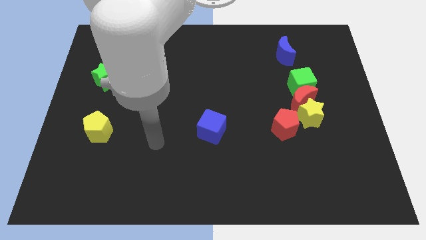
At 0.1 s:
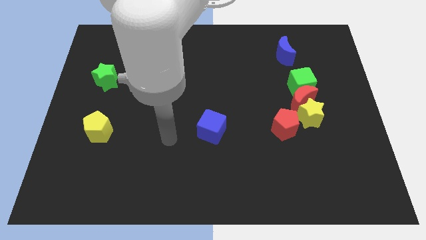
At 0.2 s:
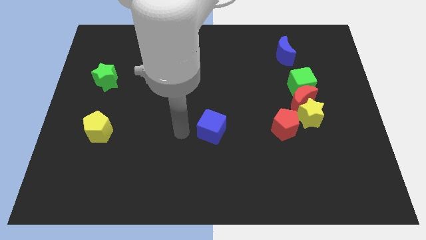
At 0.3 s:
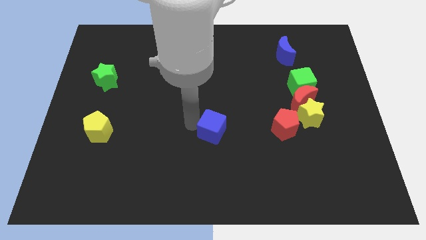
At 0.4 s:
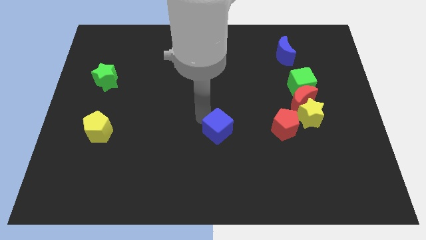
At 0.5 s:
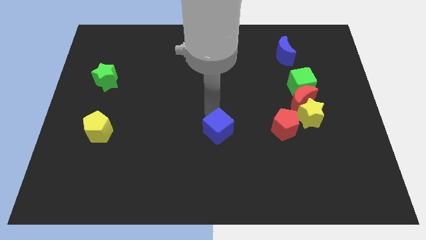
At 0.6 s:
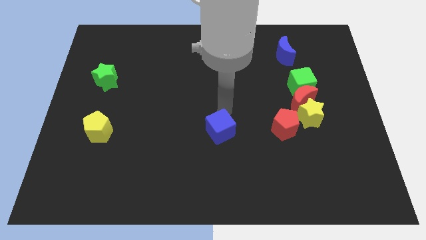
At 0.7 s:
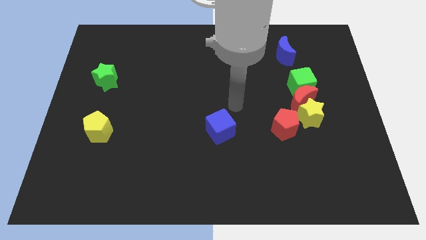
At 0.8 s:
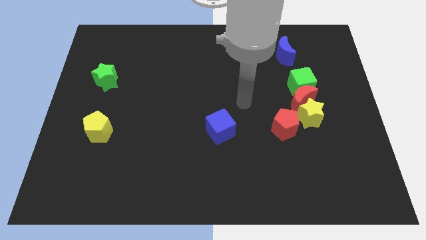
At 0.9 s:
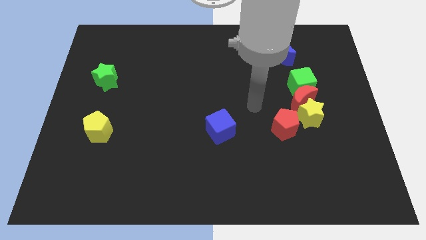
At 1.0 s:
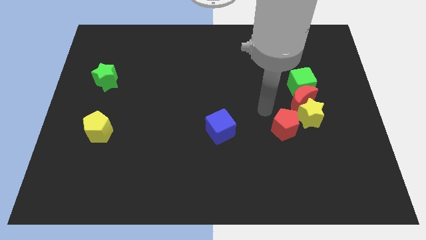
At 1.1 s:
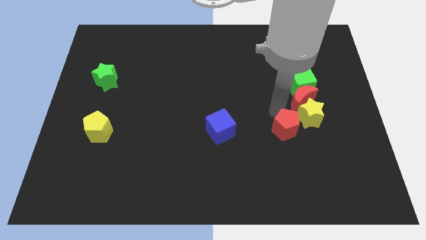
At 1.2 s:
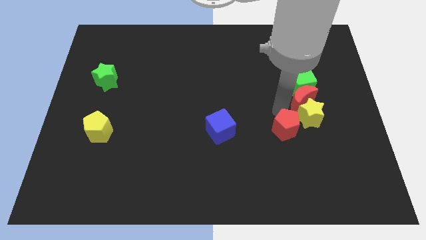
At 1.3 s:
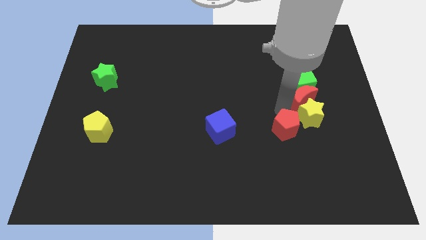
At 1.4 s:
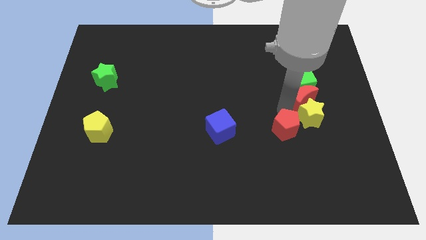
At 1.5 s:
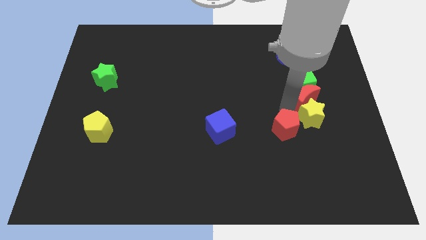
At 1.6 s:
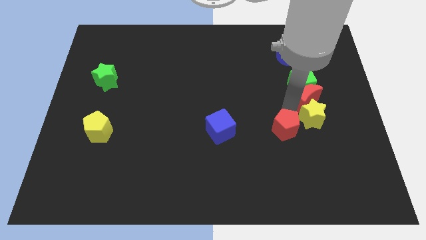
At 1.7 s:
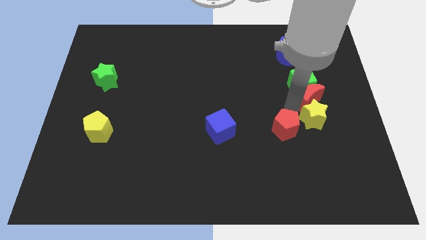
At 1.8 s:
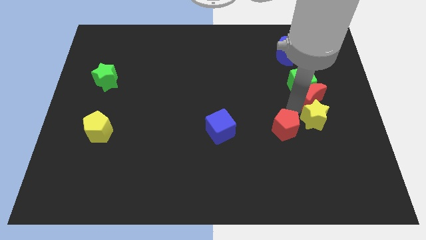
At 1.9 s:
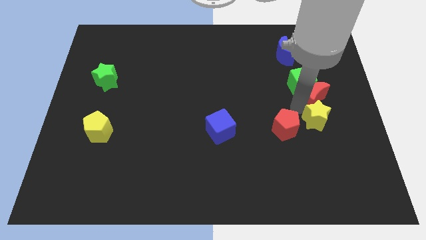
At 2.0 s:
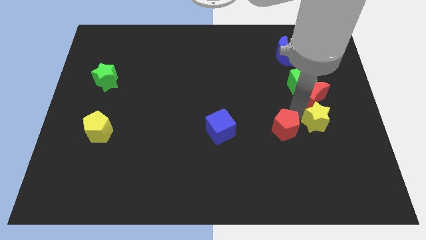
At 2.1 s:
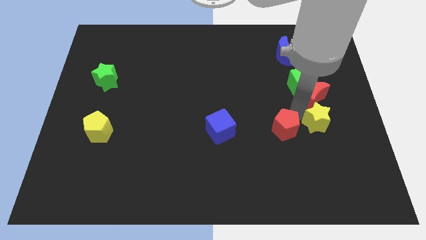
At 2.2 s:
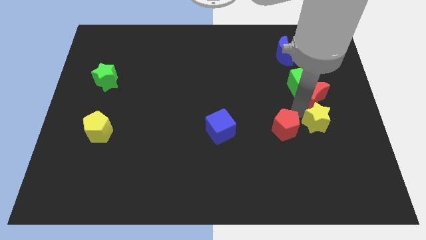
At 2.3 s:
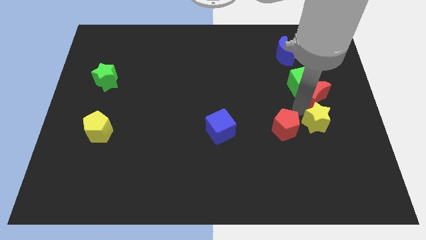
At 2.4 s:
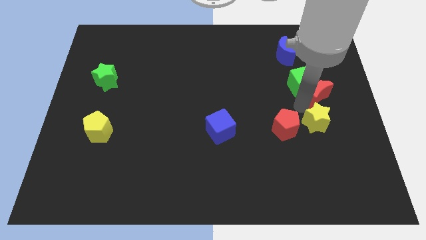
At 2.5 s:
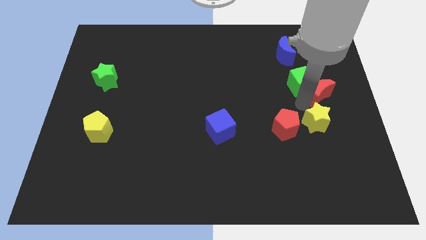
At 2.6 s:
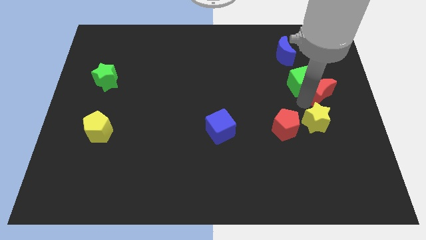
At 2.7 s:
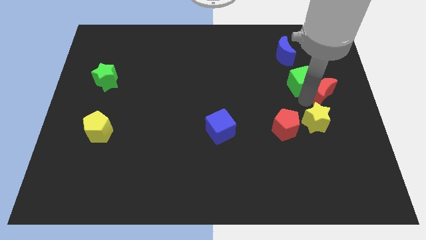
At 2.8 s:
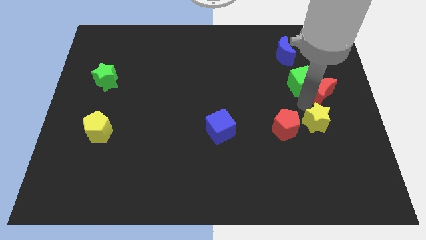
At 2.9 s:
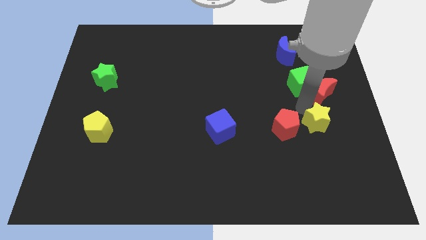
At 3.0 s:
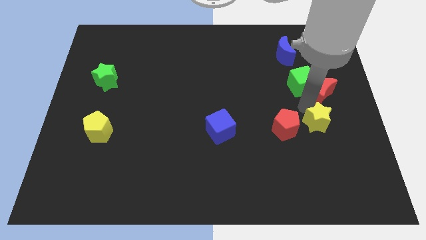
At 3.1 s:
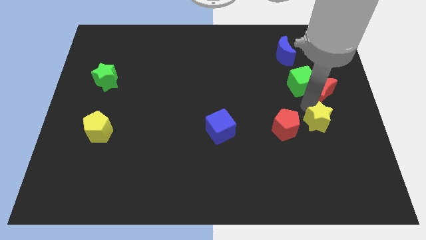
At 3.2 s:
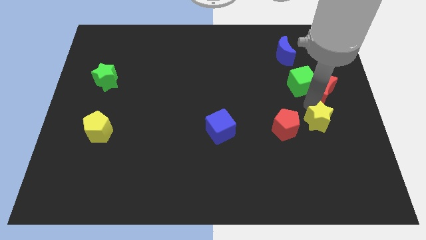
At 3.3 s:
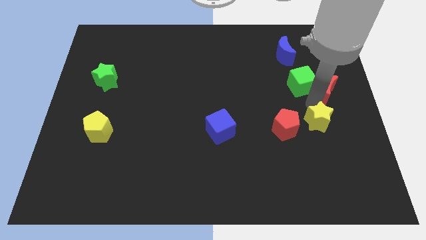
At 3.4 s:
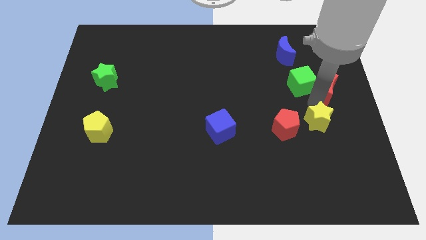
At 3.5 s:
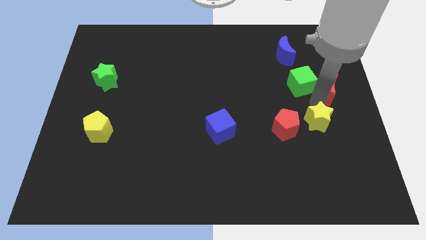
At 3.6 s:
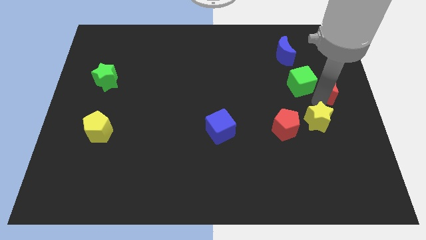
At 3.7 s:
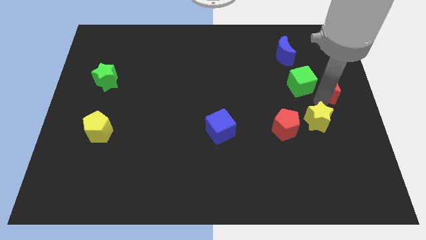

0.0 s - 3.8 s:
separate the red moon from the group

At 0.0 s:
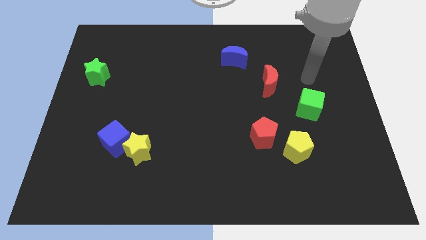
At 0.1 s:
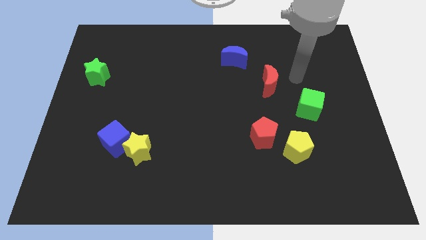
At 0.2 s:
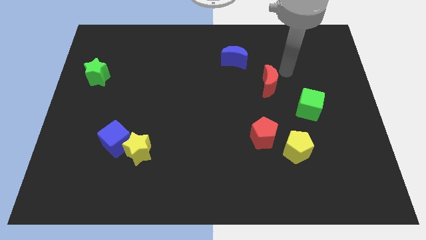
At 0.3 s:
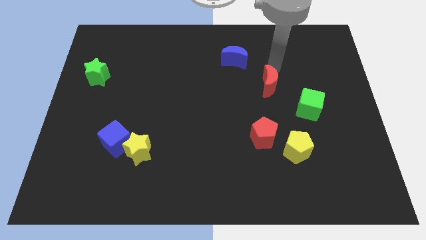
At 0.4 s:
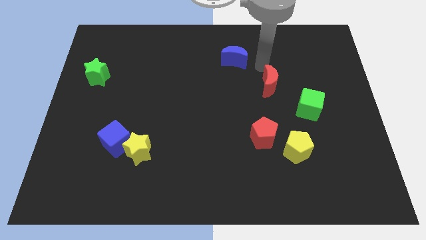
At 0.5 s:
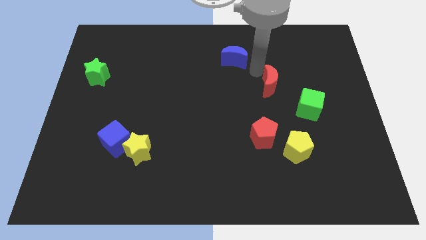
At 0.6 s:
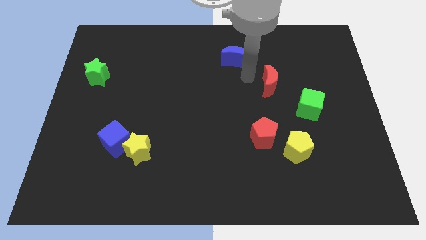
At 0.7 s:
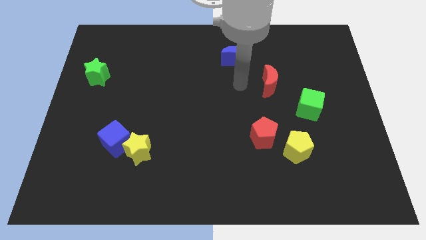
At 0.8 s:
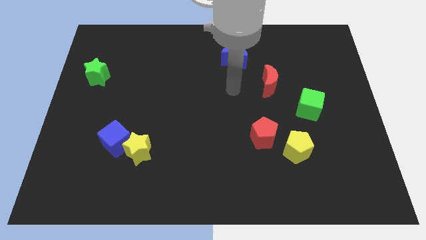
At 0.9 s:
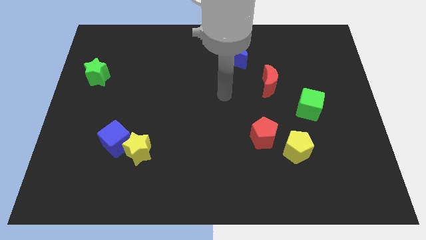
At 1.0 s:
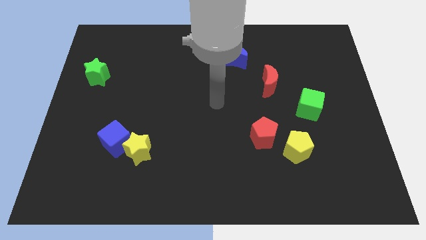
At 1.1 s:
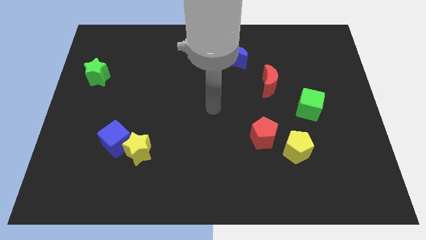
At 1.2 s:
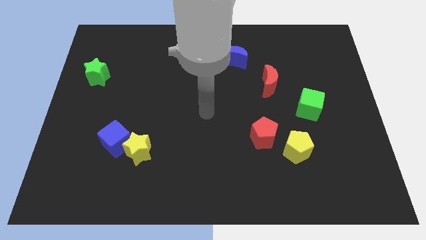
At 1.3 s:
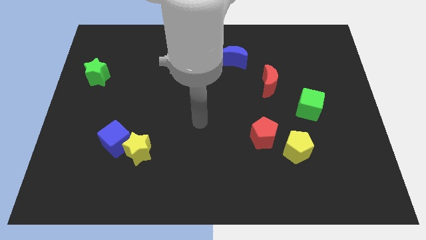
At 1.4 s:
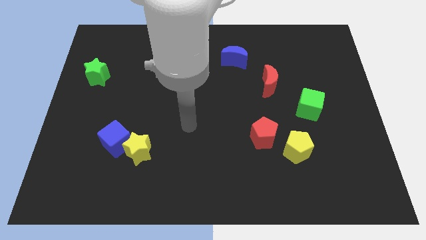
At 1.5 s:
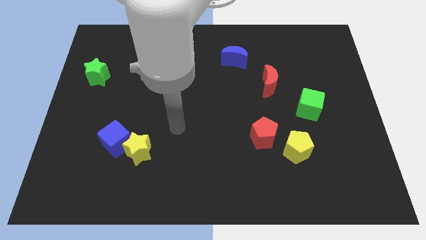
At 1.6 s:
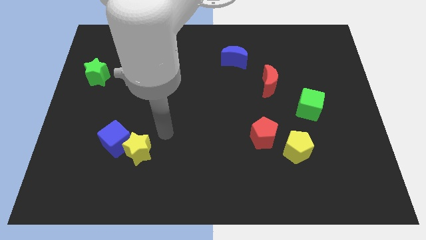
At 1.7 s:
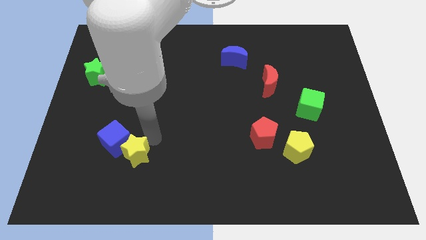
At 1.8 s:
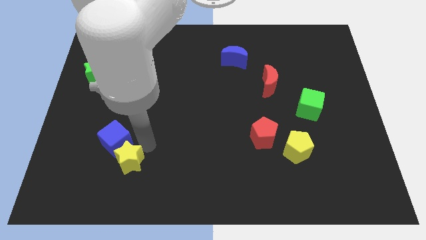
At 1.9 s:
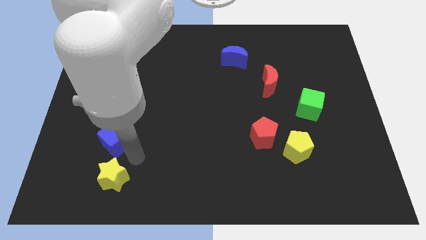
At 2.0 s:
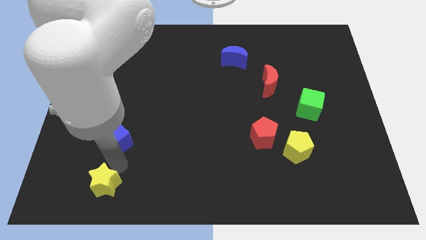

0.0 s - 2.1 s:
separate the blue cube from the yellow star

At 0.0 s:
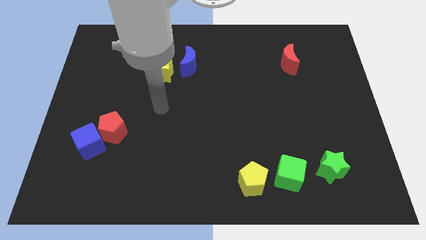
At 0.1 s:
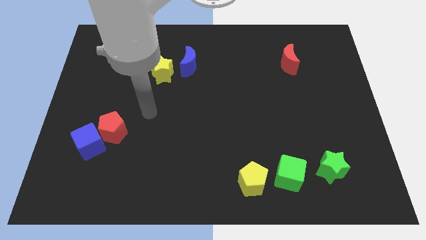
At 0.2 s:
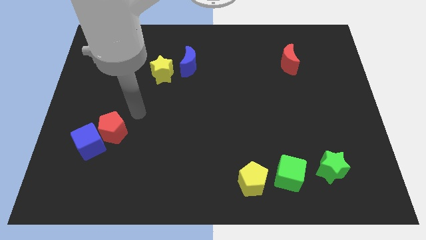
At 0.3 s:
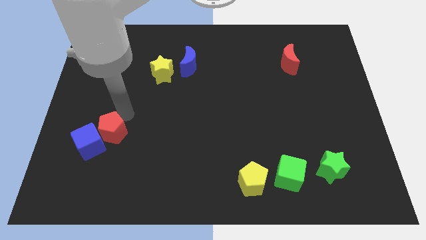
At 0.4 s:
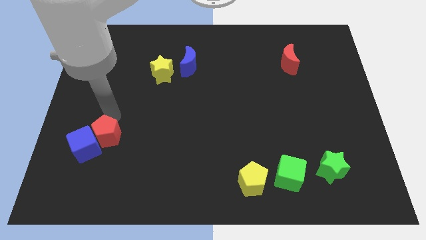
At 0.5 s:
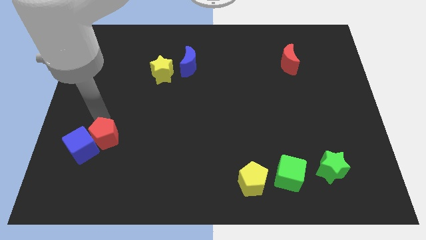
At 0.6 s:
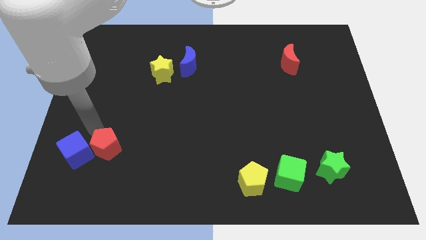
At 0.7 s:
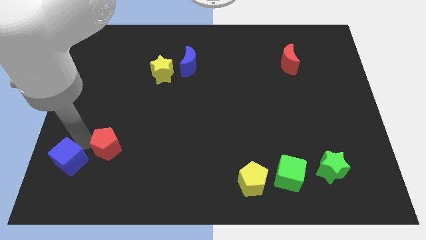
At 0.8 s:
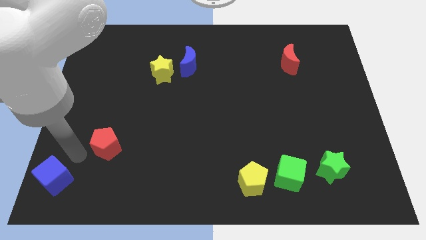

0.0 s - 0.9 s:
pull the red pentagon apart from the blue cube

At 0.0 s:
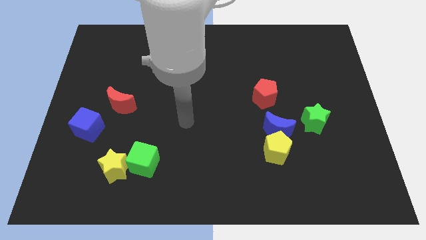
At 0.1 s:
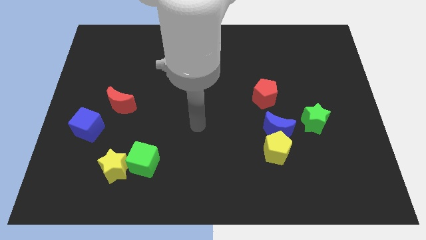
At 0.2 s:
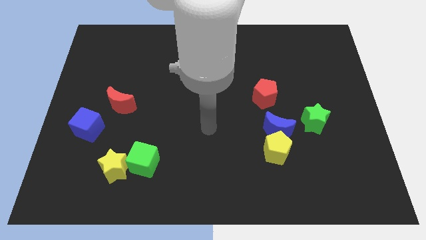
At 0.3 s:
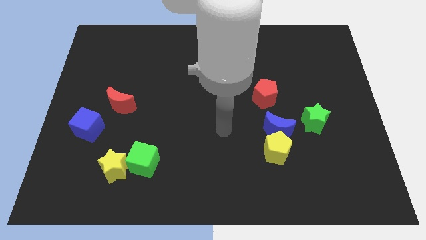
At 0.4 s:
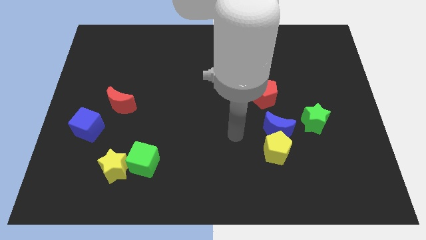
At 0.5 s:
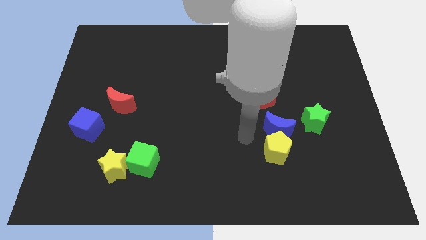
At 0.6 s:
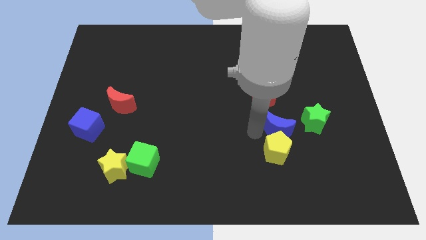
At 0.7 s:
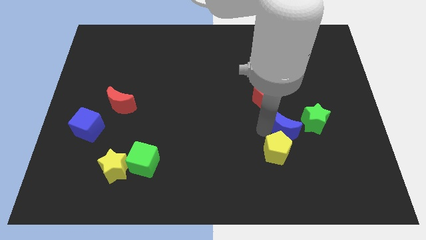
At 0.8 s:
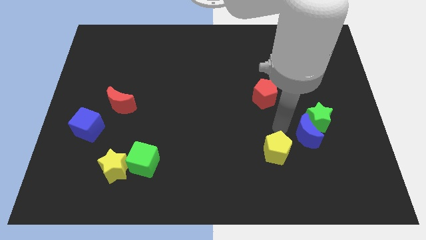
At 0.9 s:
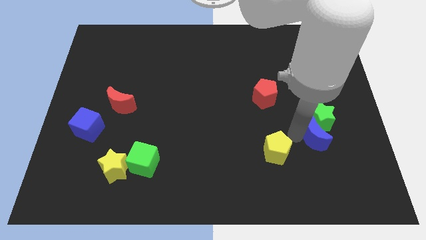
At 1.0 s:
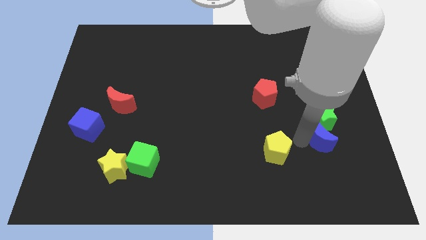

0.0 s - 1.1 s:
move the yellow pentagon away from the blue moon

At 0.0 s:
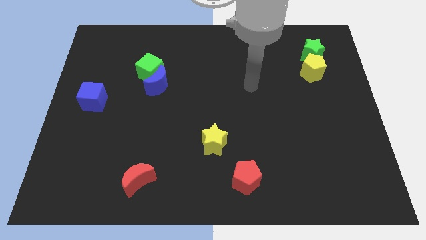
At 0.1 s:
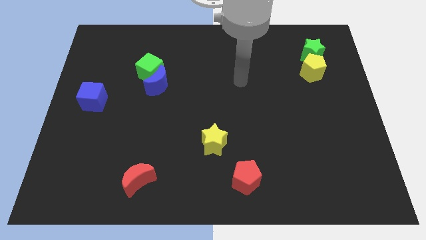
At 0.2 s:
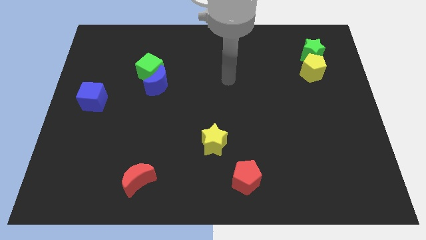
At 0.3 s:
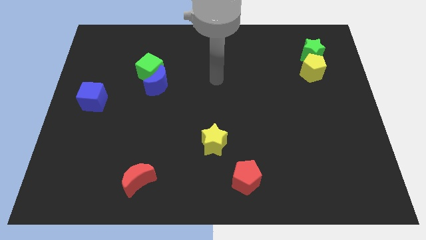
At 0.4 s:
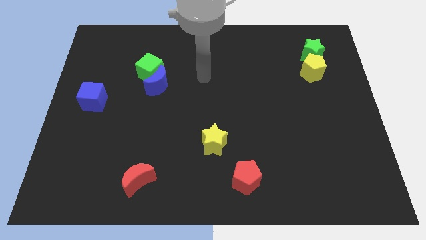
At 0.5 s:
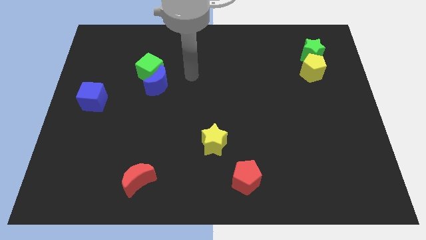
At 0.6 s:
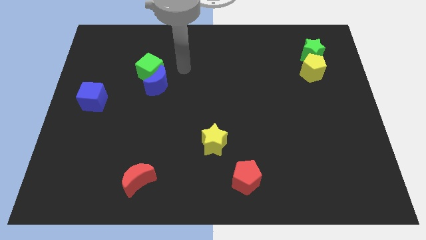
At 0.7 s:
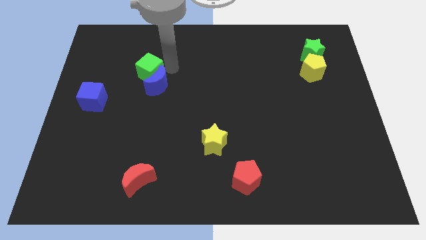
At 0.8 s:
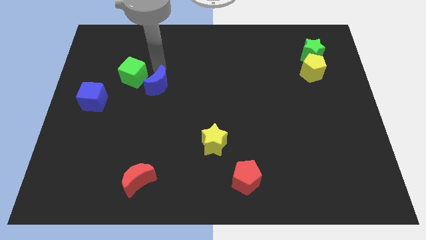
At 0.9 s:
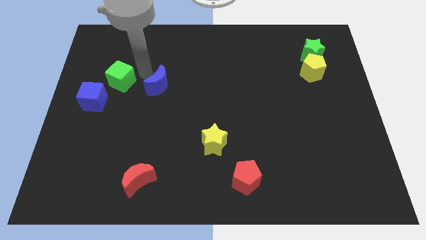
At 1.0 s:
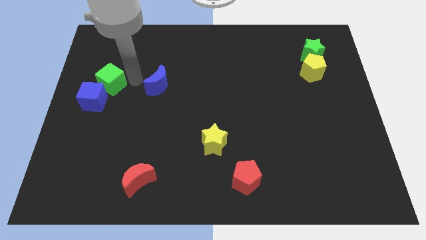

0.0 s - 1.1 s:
move the blue moon away from the green cube

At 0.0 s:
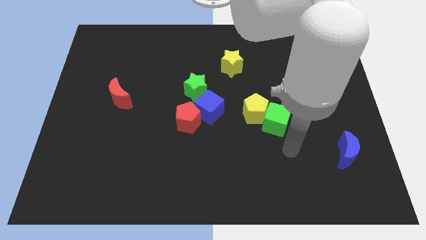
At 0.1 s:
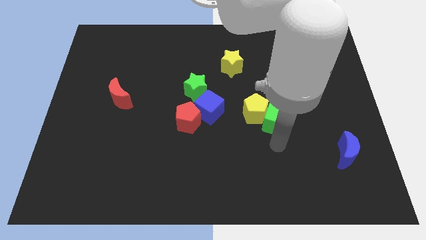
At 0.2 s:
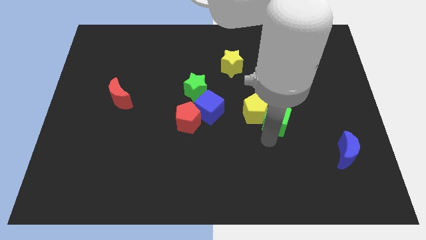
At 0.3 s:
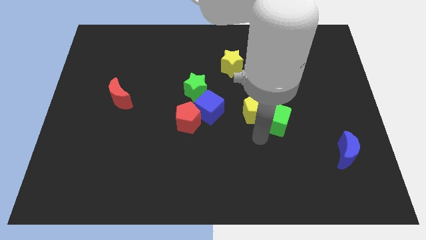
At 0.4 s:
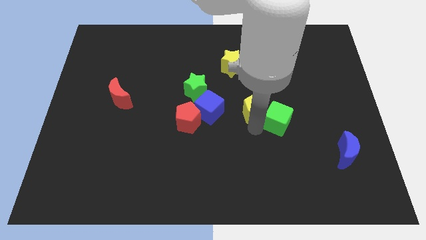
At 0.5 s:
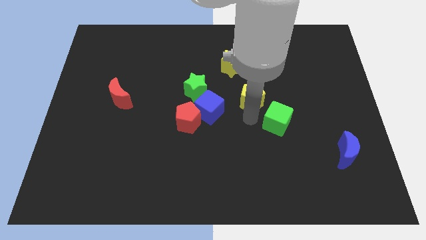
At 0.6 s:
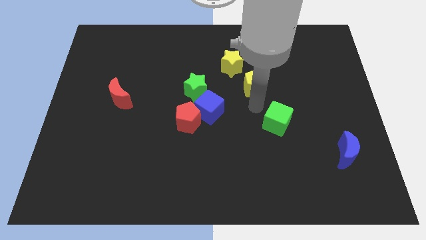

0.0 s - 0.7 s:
move the green cube away from the yellow pentagon
